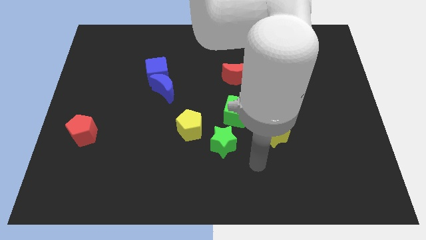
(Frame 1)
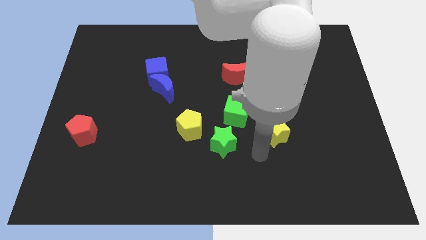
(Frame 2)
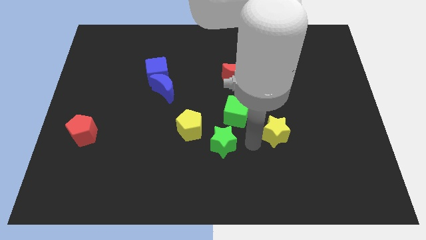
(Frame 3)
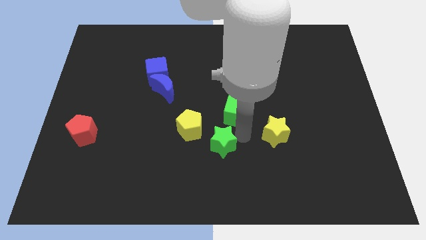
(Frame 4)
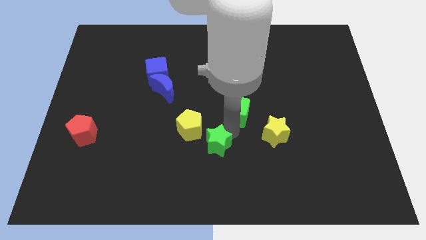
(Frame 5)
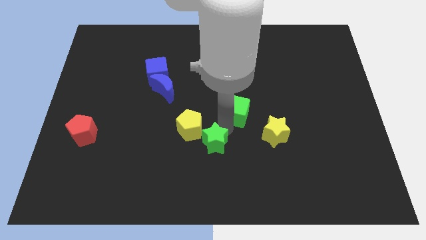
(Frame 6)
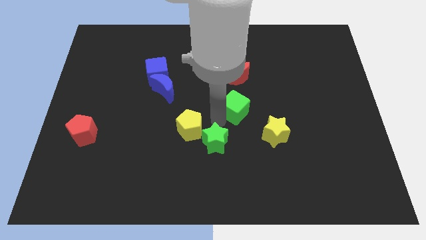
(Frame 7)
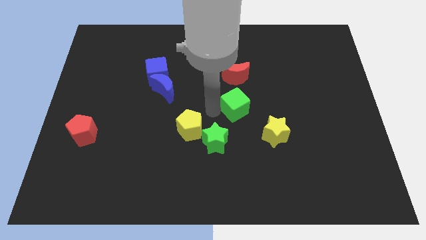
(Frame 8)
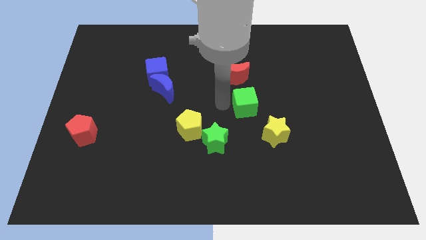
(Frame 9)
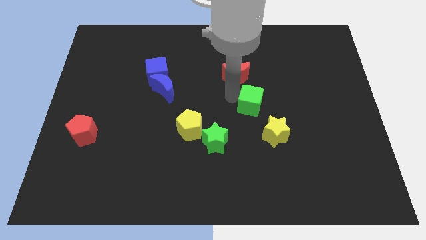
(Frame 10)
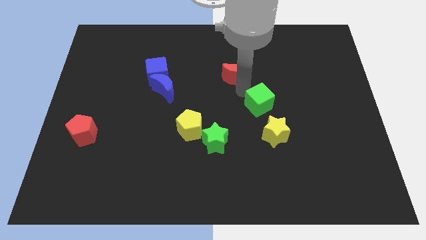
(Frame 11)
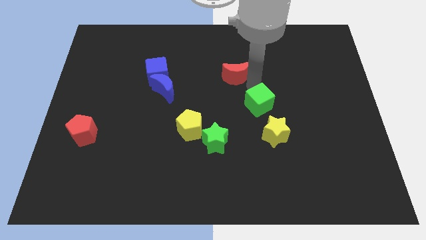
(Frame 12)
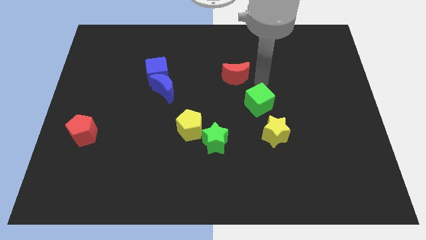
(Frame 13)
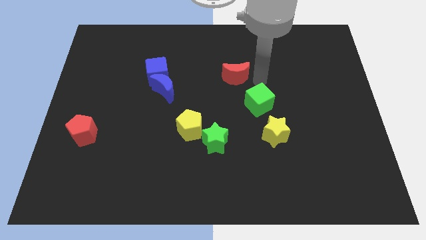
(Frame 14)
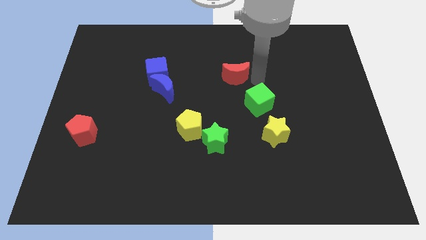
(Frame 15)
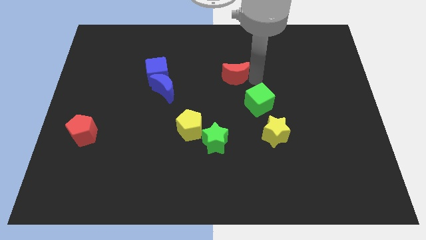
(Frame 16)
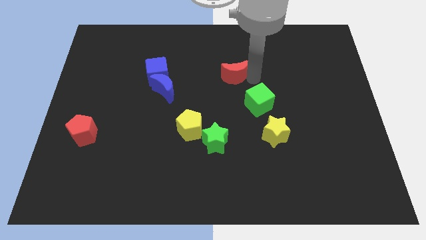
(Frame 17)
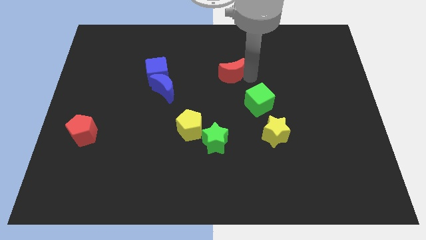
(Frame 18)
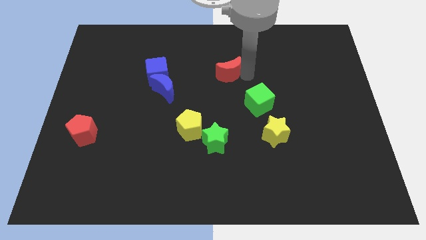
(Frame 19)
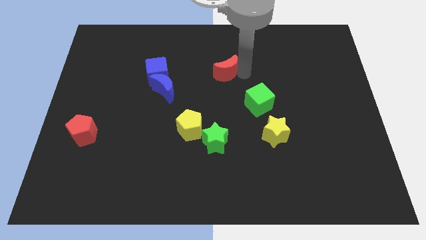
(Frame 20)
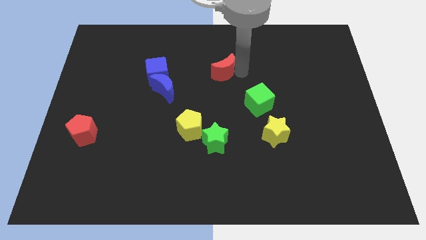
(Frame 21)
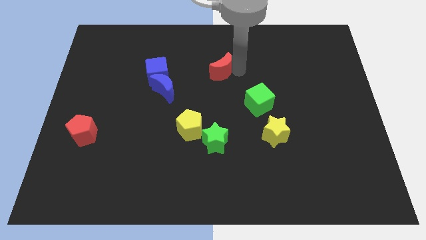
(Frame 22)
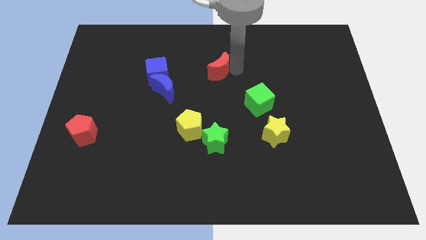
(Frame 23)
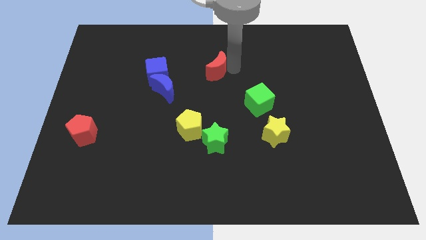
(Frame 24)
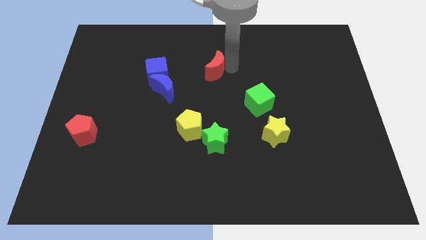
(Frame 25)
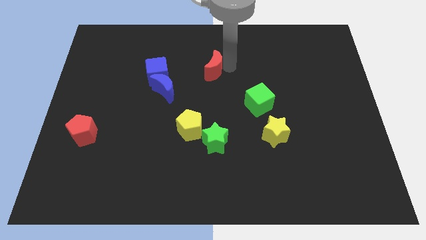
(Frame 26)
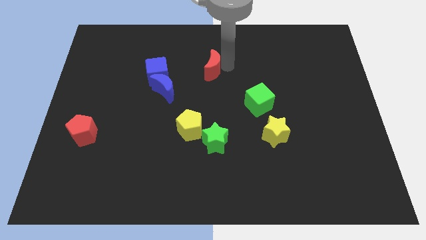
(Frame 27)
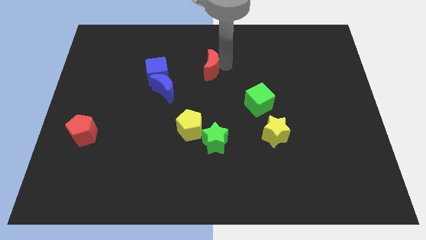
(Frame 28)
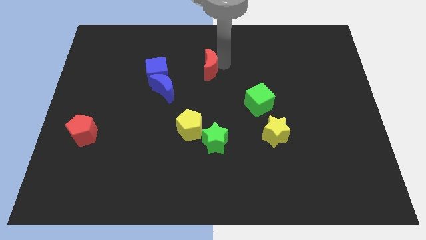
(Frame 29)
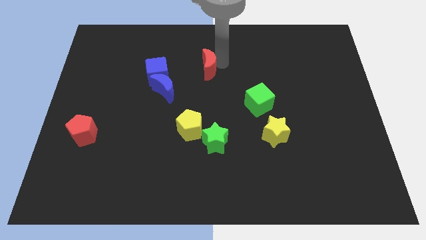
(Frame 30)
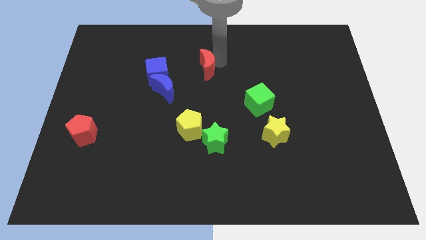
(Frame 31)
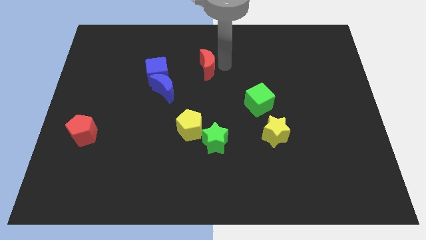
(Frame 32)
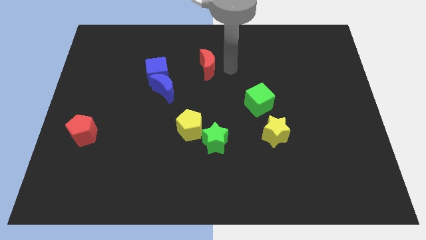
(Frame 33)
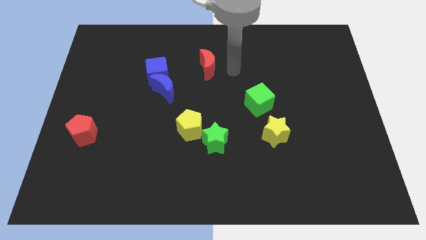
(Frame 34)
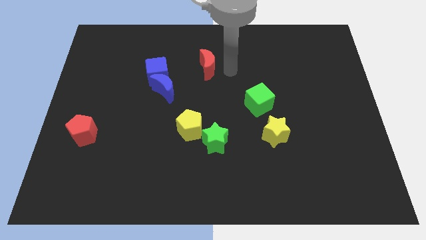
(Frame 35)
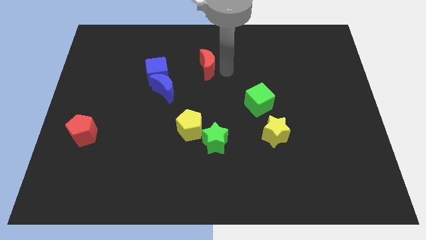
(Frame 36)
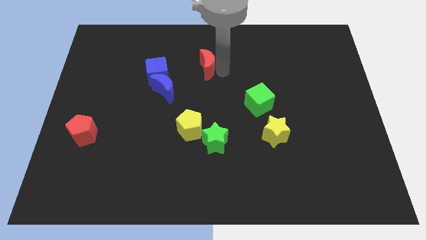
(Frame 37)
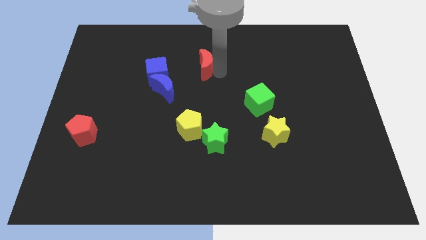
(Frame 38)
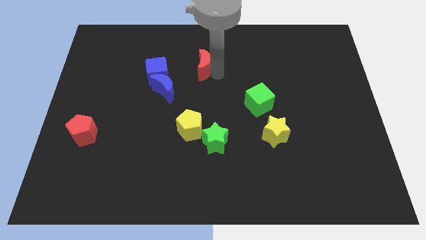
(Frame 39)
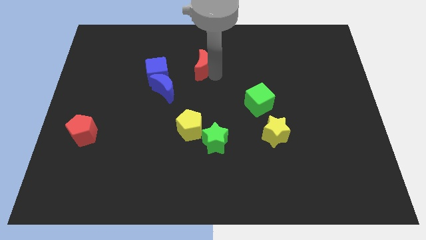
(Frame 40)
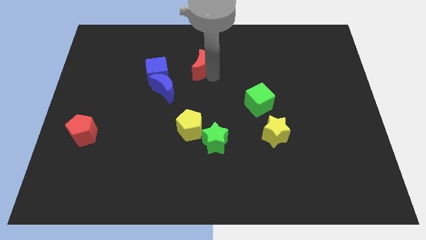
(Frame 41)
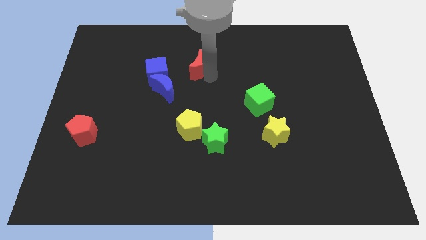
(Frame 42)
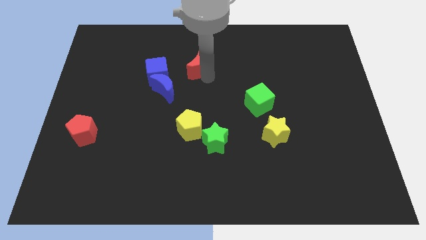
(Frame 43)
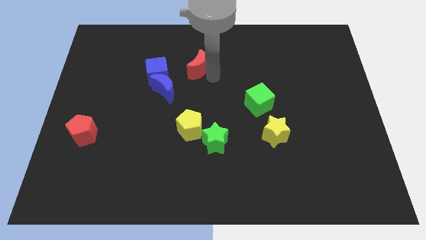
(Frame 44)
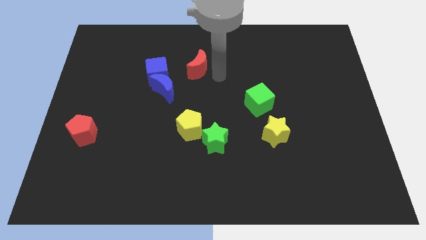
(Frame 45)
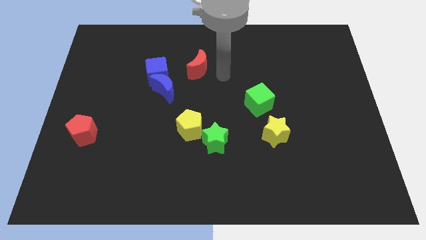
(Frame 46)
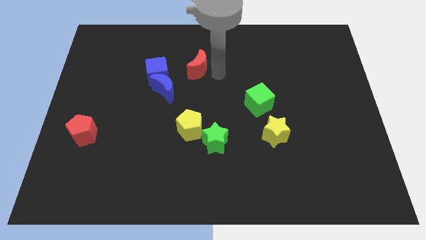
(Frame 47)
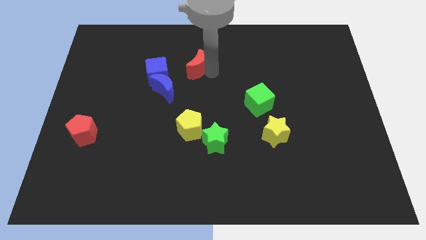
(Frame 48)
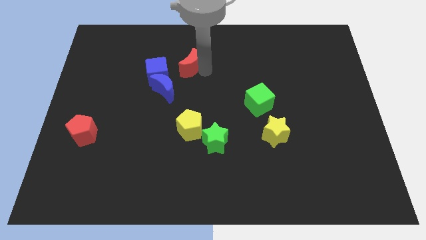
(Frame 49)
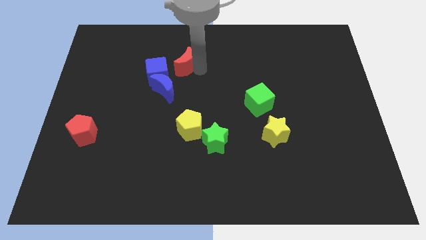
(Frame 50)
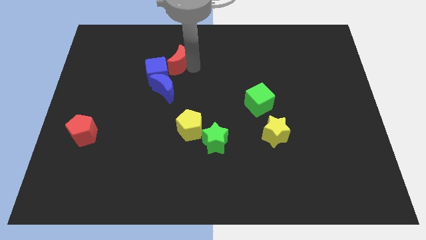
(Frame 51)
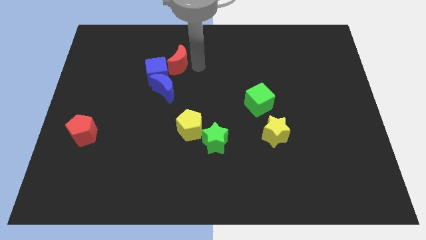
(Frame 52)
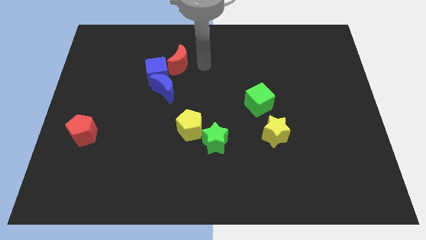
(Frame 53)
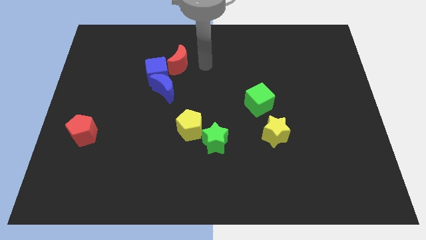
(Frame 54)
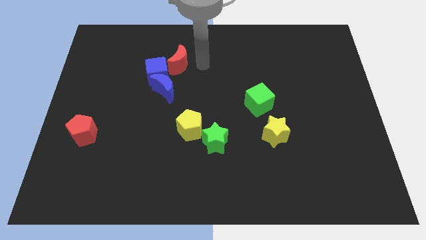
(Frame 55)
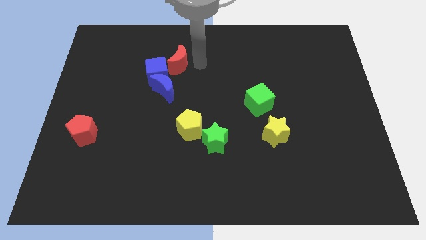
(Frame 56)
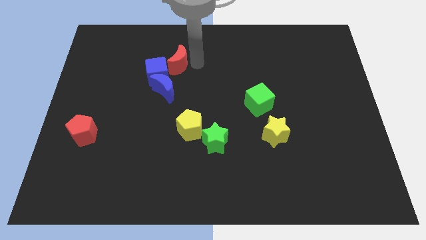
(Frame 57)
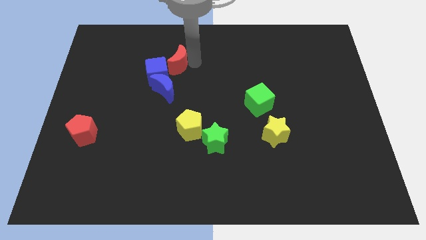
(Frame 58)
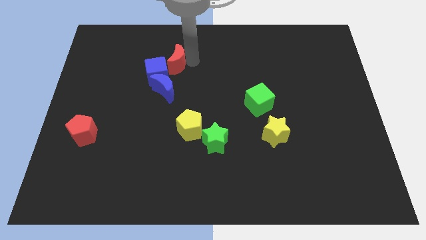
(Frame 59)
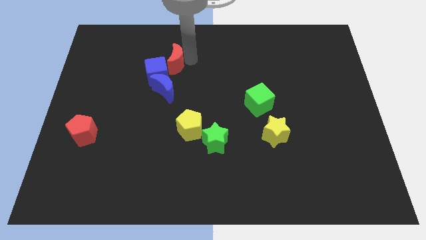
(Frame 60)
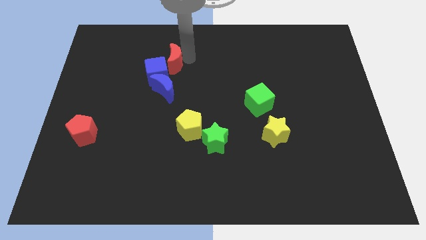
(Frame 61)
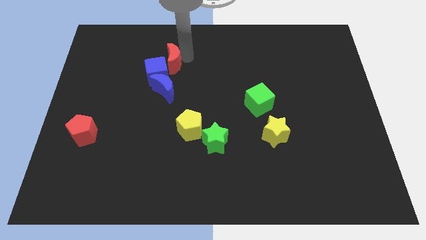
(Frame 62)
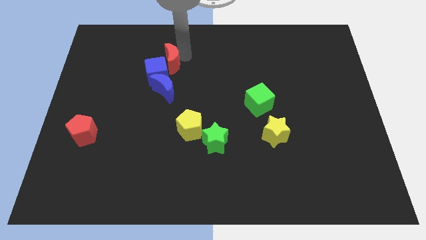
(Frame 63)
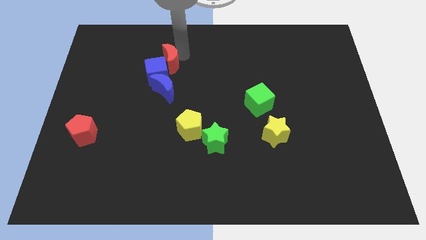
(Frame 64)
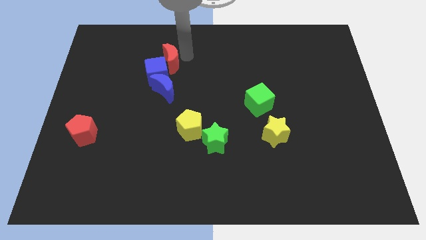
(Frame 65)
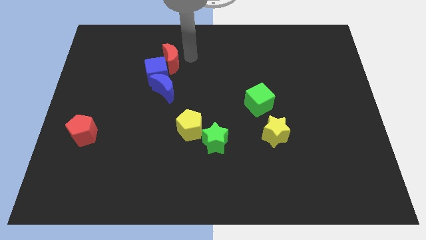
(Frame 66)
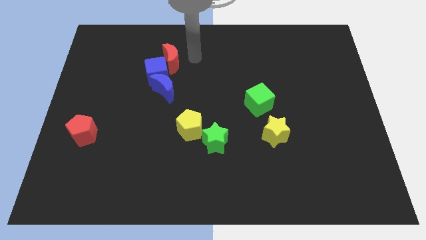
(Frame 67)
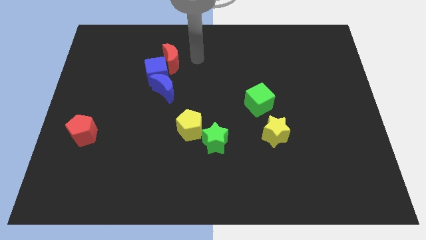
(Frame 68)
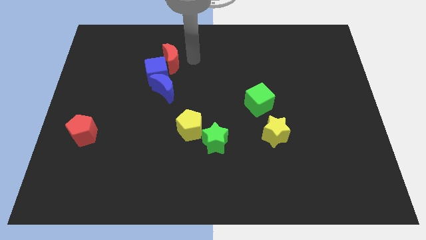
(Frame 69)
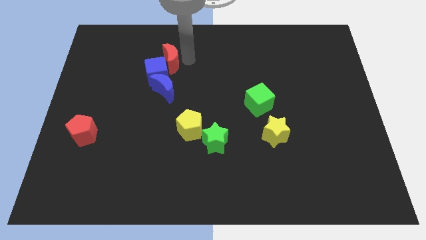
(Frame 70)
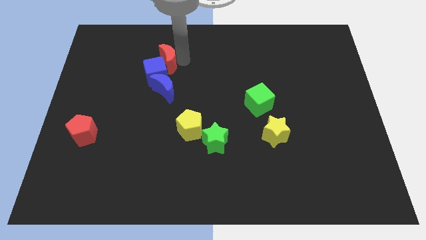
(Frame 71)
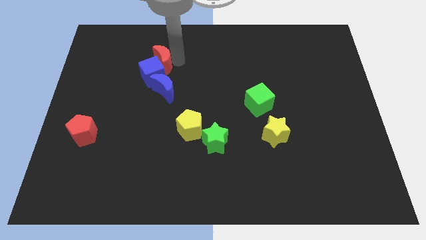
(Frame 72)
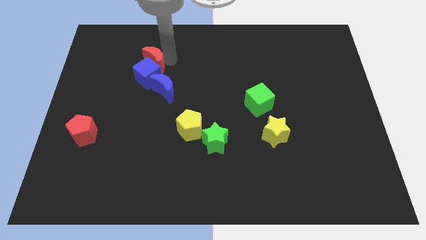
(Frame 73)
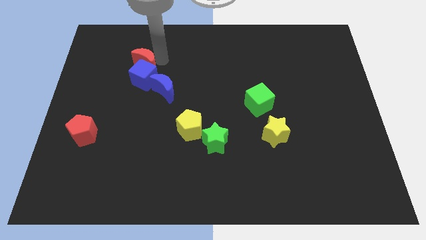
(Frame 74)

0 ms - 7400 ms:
move the red moon left
